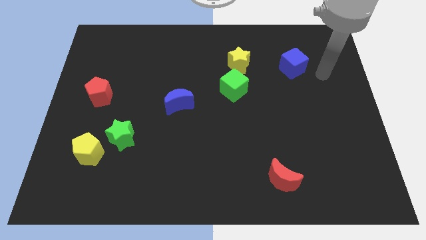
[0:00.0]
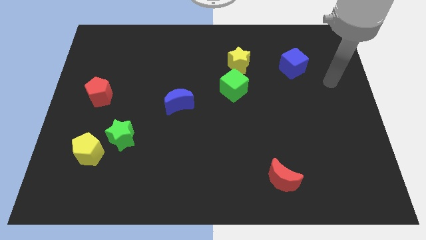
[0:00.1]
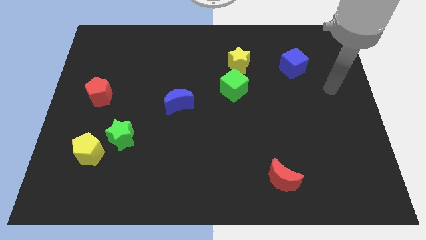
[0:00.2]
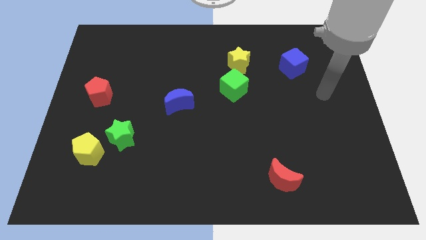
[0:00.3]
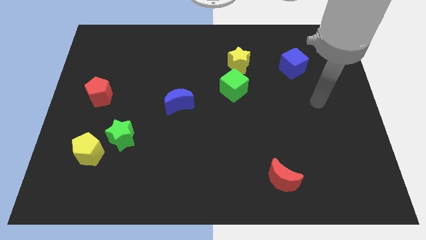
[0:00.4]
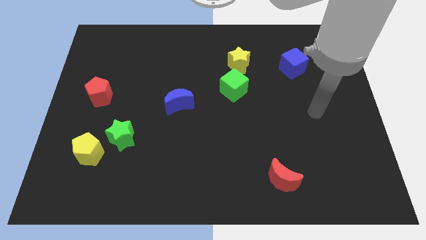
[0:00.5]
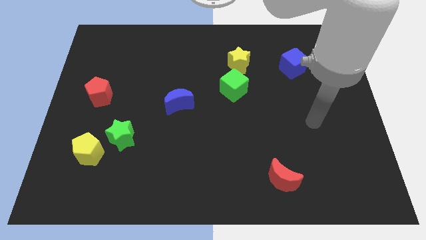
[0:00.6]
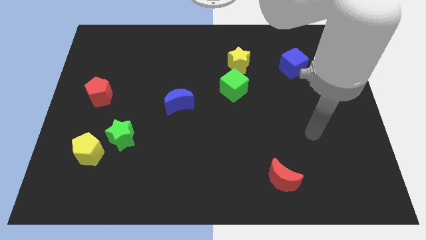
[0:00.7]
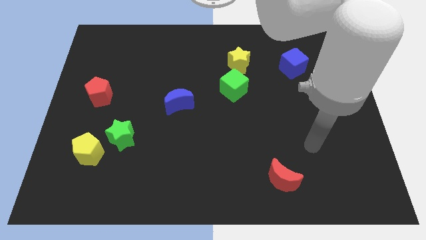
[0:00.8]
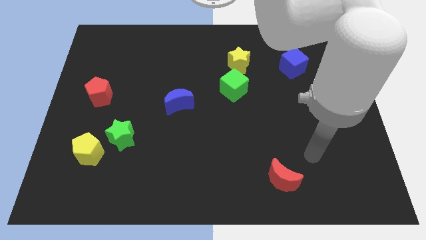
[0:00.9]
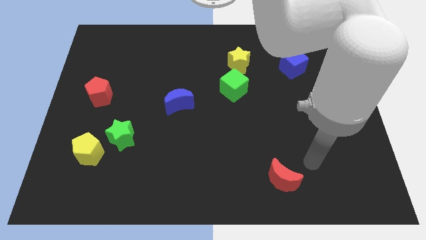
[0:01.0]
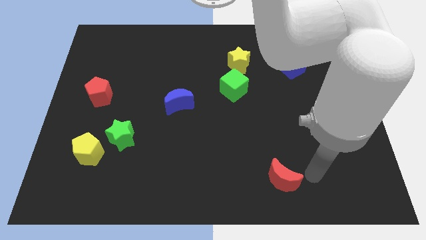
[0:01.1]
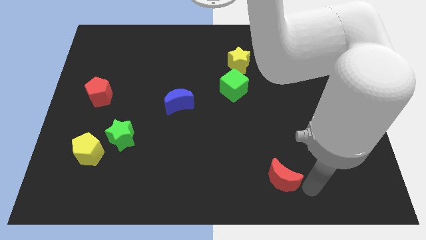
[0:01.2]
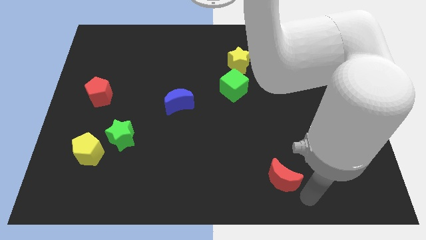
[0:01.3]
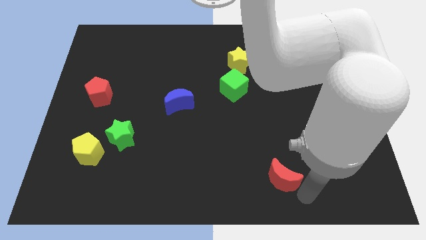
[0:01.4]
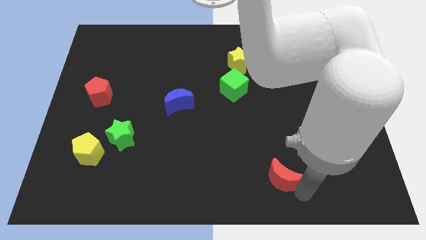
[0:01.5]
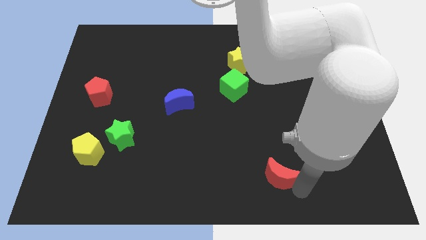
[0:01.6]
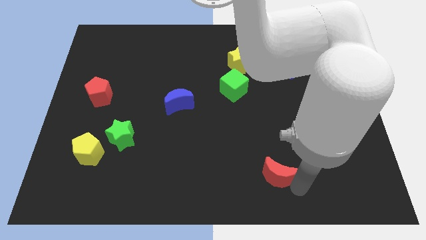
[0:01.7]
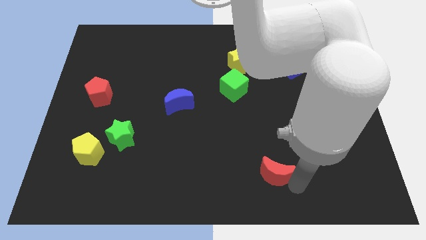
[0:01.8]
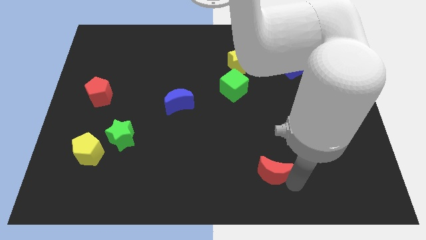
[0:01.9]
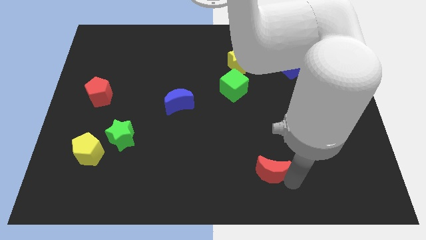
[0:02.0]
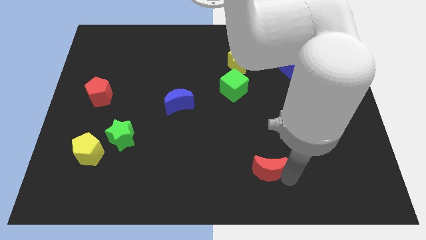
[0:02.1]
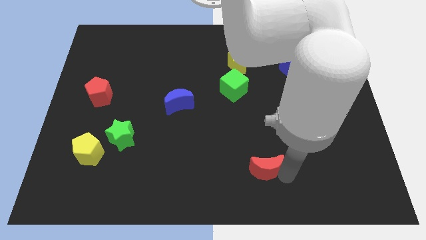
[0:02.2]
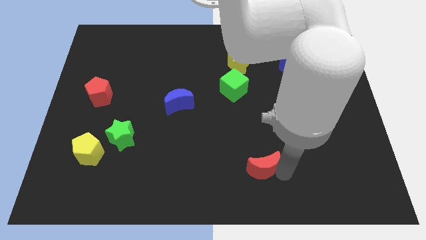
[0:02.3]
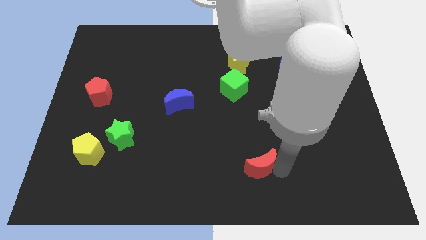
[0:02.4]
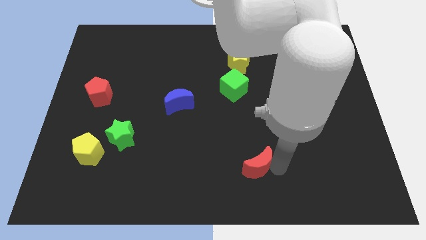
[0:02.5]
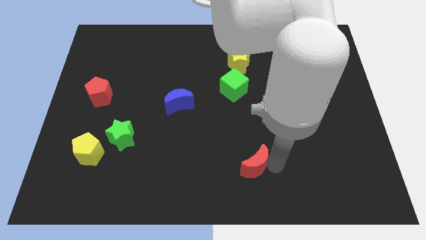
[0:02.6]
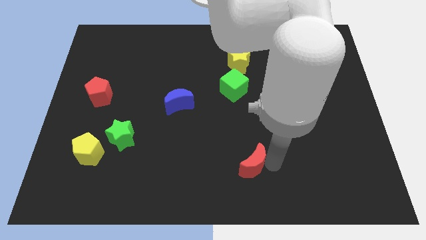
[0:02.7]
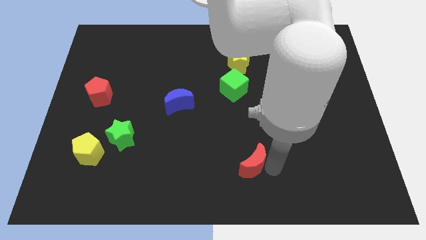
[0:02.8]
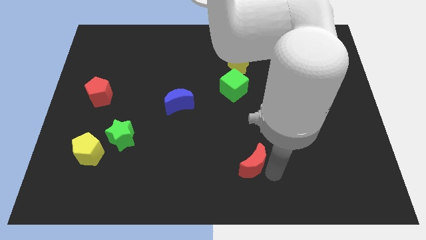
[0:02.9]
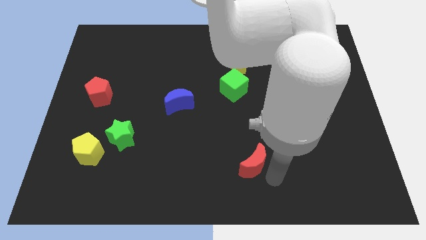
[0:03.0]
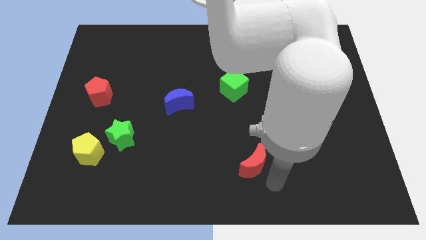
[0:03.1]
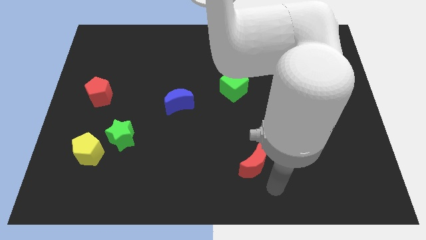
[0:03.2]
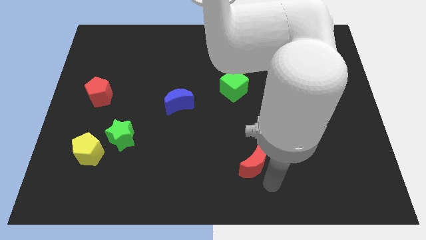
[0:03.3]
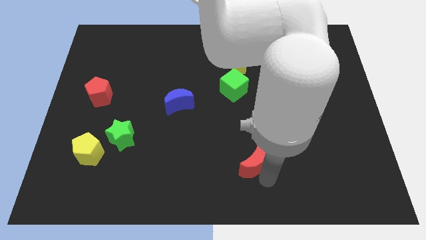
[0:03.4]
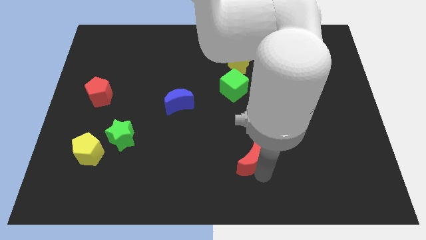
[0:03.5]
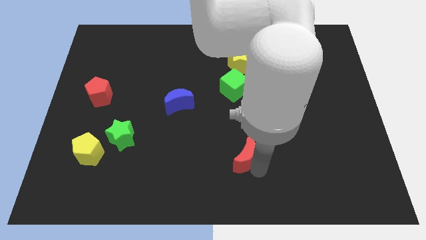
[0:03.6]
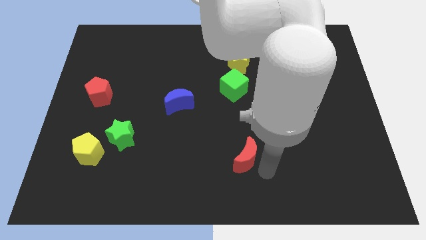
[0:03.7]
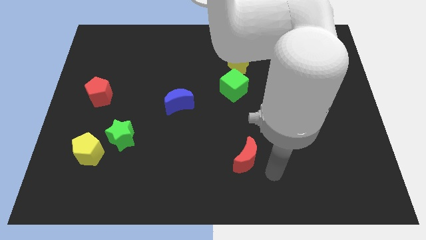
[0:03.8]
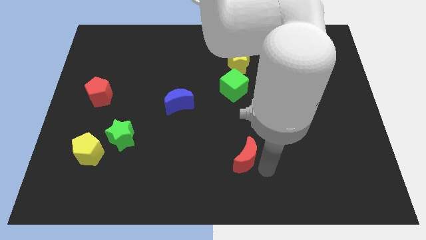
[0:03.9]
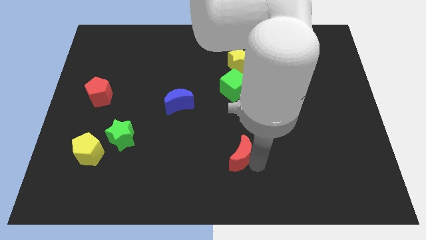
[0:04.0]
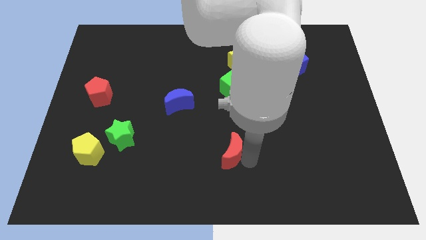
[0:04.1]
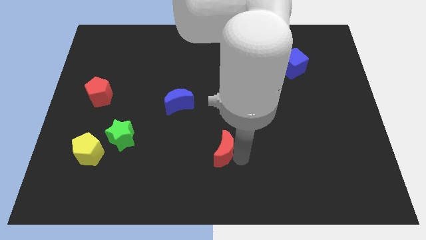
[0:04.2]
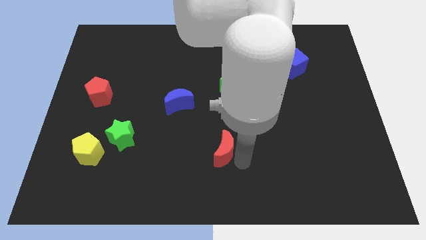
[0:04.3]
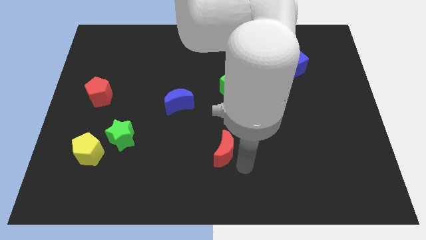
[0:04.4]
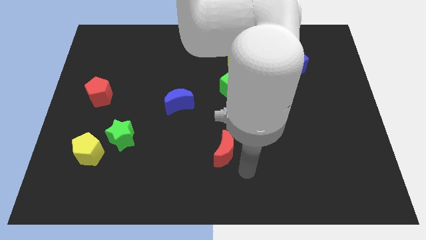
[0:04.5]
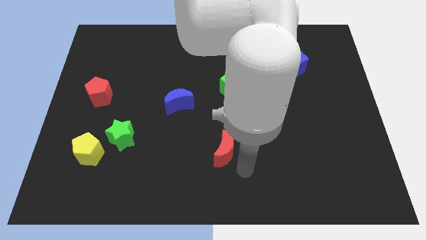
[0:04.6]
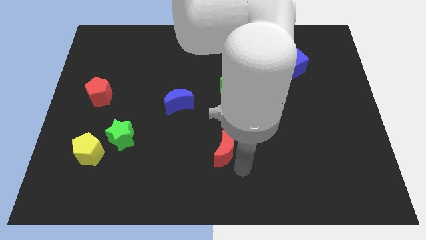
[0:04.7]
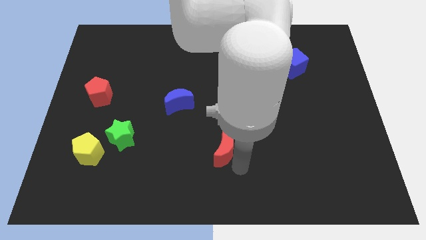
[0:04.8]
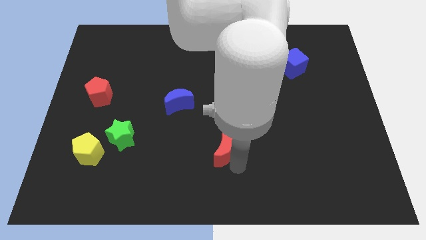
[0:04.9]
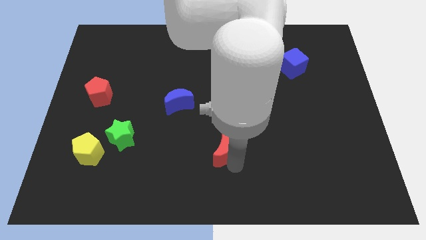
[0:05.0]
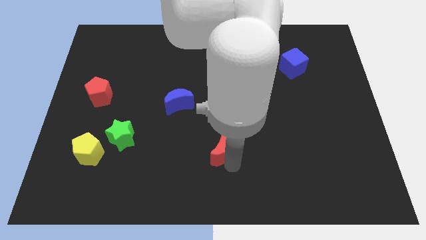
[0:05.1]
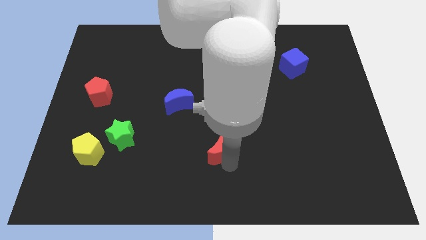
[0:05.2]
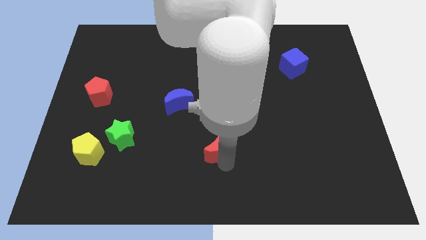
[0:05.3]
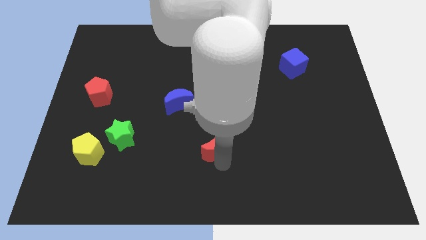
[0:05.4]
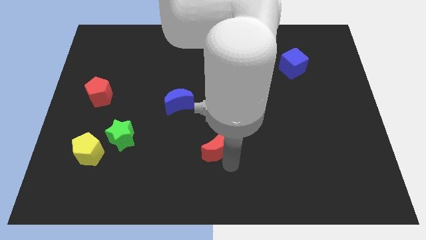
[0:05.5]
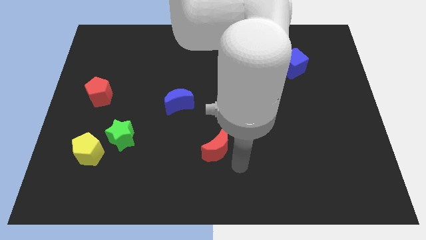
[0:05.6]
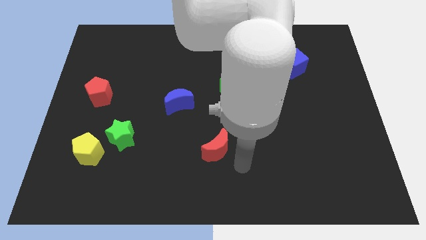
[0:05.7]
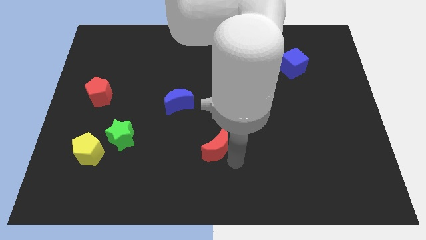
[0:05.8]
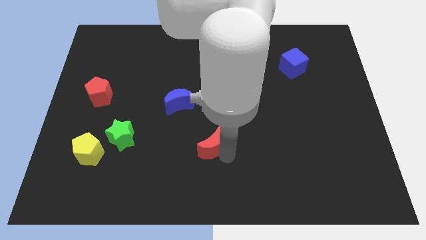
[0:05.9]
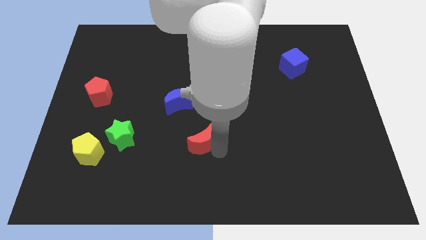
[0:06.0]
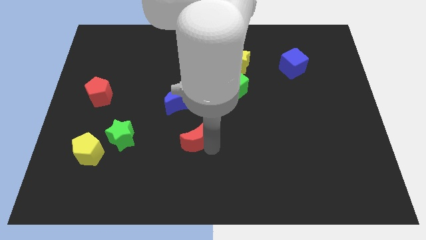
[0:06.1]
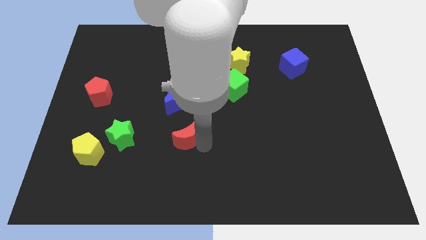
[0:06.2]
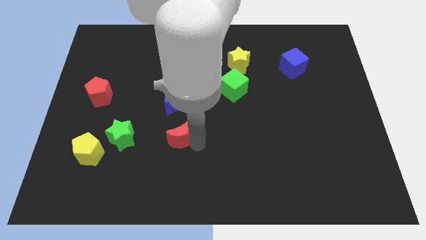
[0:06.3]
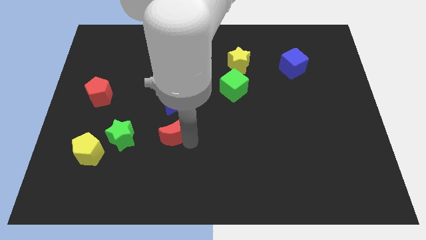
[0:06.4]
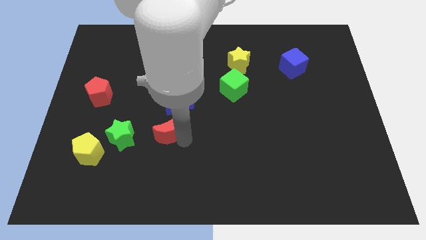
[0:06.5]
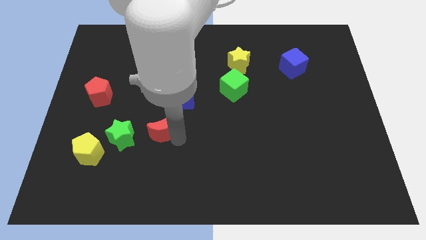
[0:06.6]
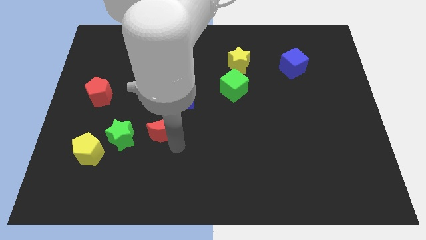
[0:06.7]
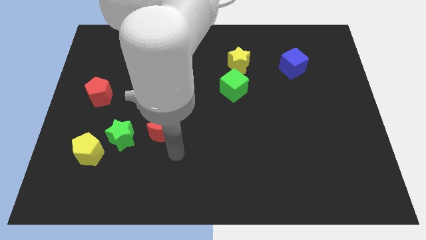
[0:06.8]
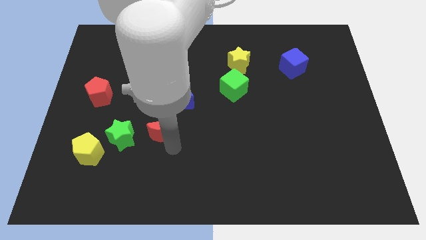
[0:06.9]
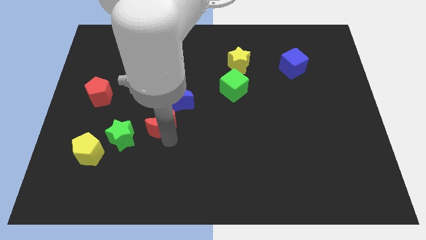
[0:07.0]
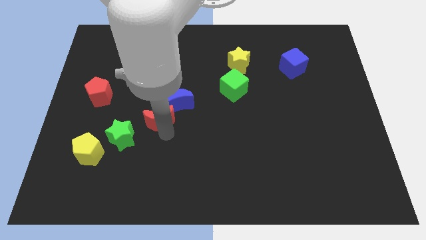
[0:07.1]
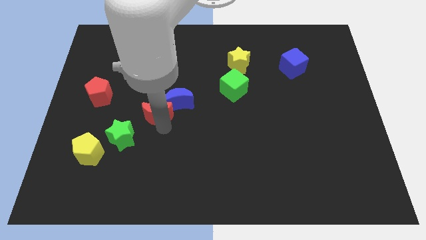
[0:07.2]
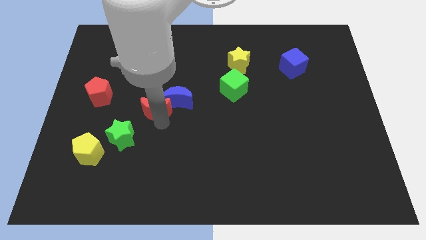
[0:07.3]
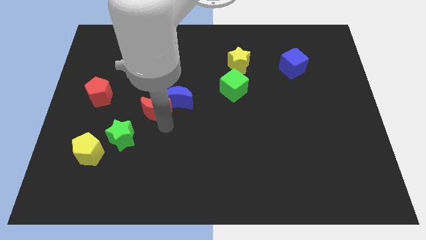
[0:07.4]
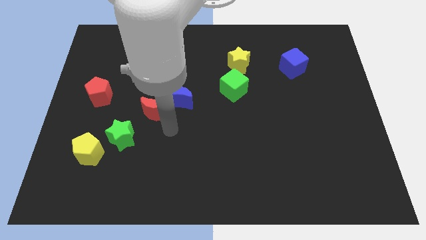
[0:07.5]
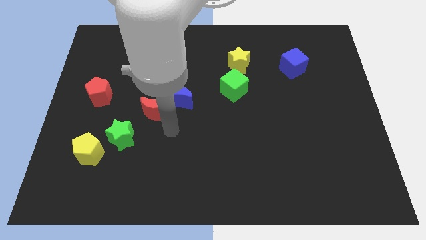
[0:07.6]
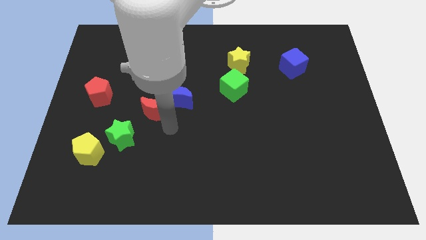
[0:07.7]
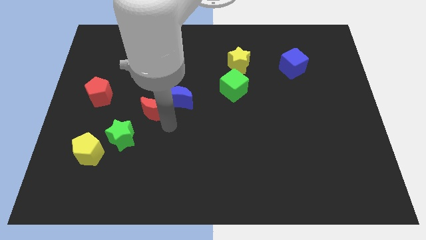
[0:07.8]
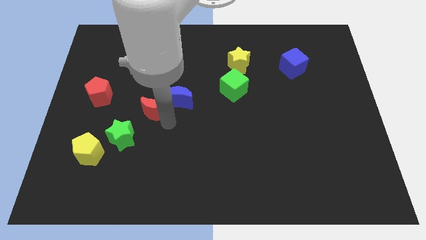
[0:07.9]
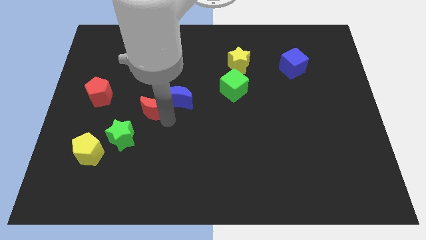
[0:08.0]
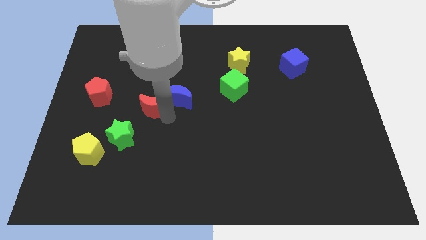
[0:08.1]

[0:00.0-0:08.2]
move the red moon just right of the red pentagon

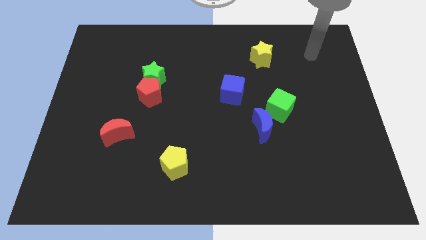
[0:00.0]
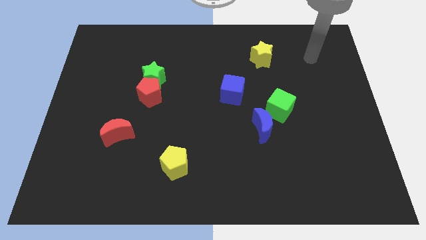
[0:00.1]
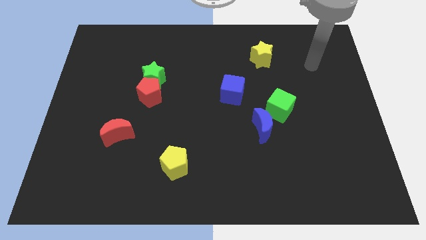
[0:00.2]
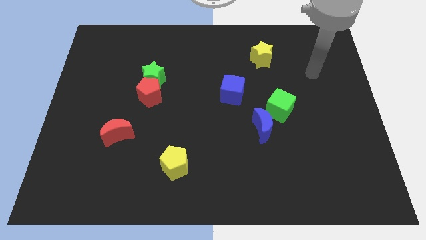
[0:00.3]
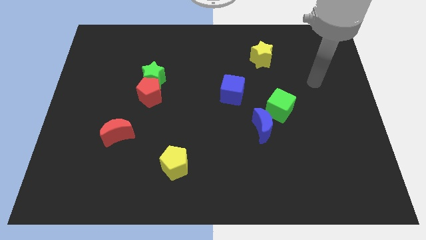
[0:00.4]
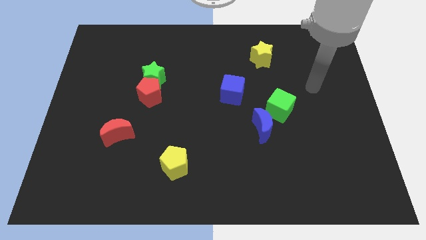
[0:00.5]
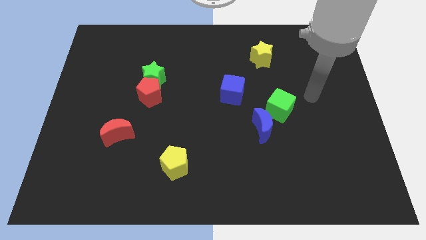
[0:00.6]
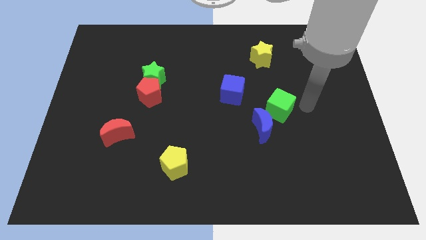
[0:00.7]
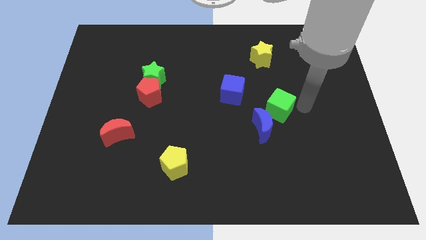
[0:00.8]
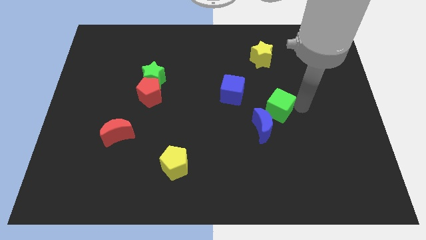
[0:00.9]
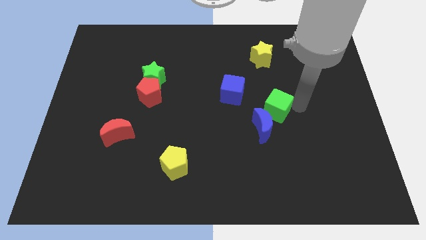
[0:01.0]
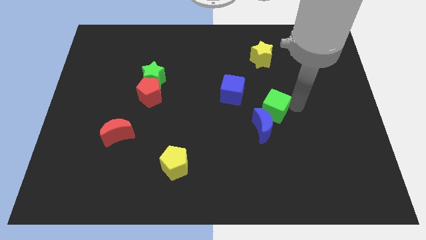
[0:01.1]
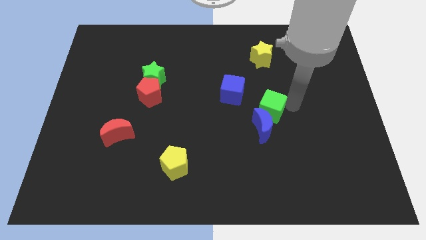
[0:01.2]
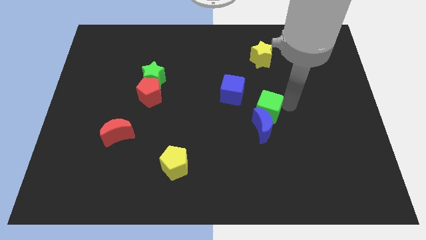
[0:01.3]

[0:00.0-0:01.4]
push the green cube to the top left side of the blue moon
